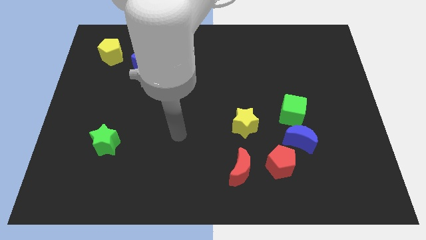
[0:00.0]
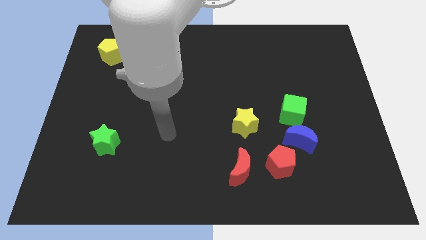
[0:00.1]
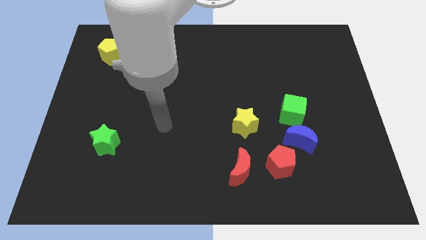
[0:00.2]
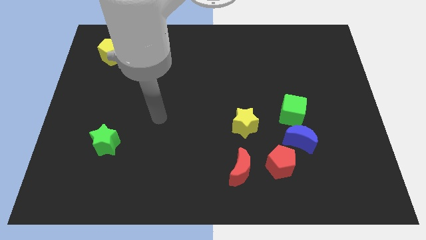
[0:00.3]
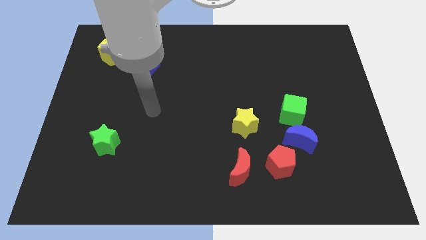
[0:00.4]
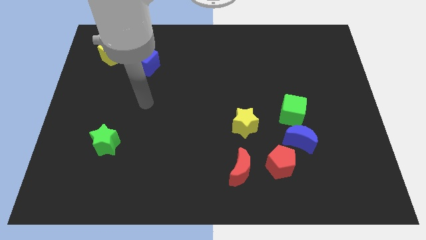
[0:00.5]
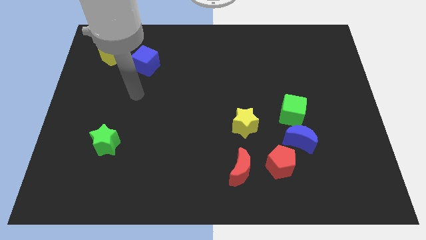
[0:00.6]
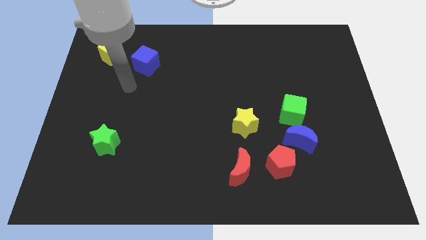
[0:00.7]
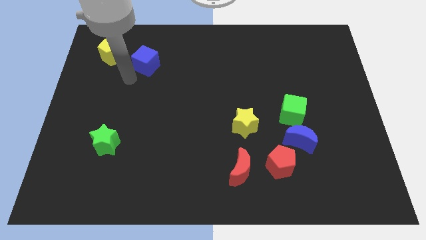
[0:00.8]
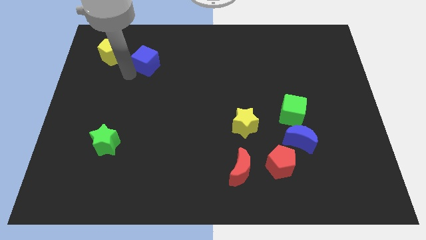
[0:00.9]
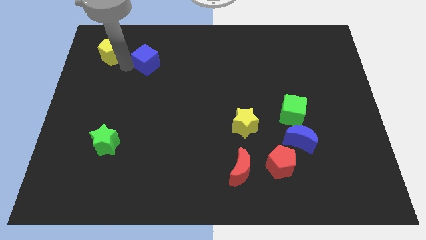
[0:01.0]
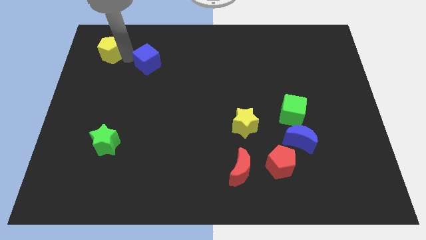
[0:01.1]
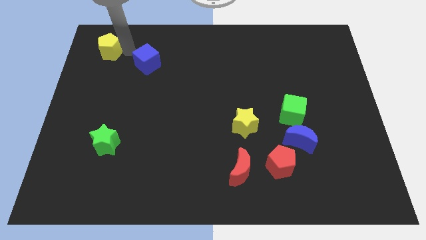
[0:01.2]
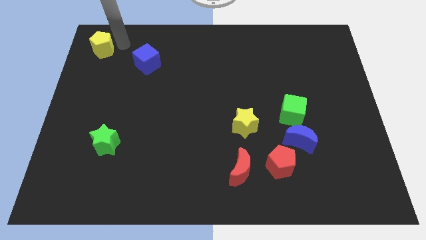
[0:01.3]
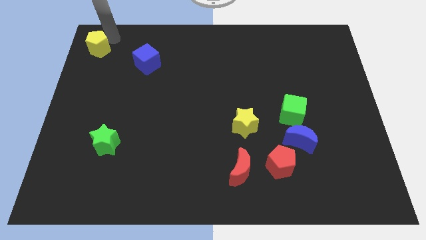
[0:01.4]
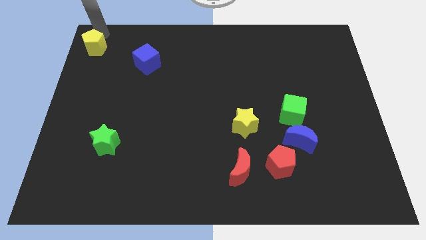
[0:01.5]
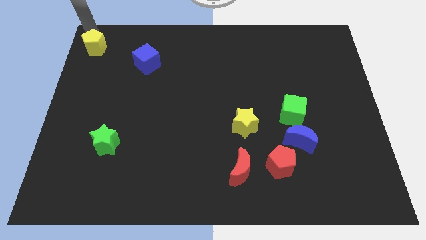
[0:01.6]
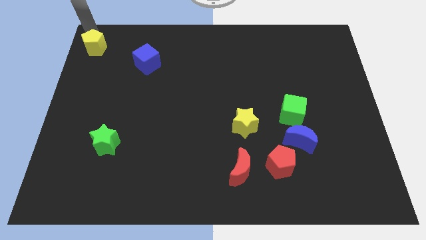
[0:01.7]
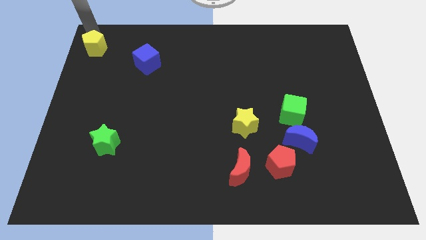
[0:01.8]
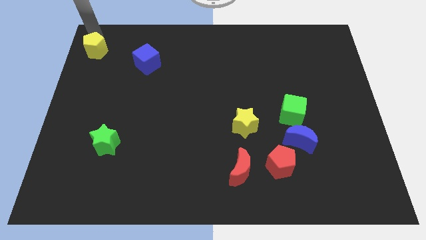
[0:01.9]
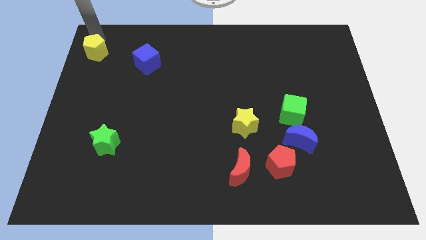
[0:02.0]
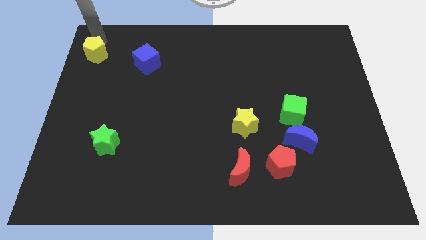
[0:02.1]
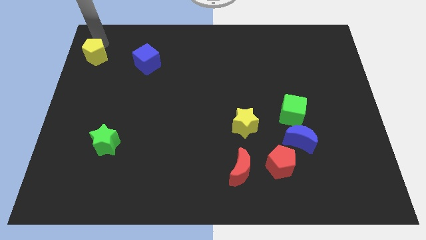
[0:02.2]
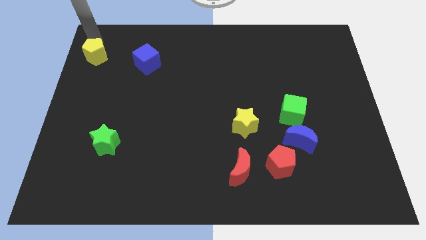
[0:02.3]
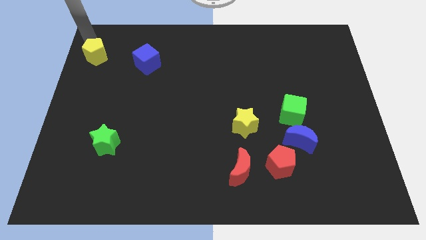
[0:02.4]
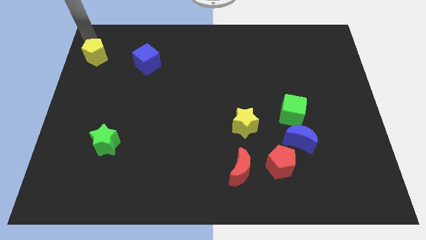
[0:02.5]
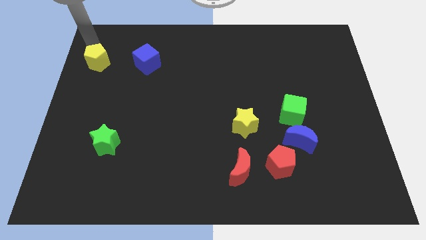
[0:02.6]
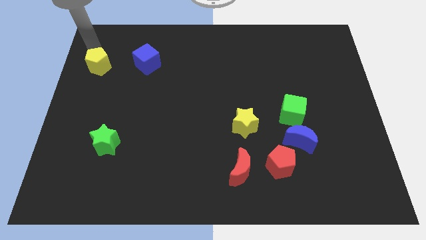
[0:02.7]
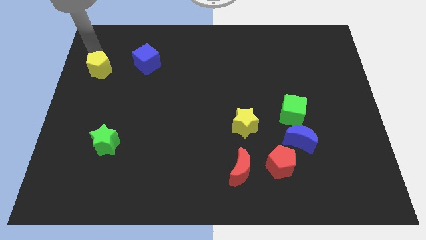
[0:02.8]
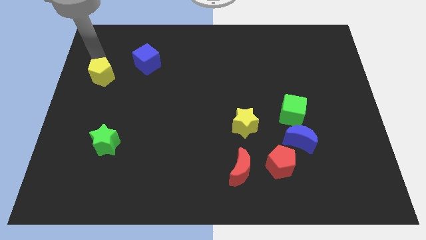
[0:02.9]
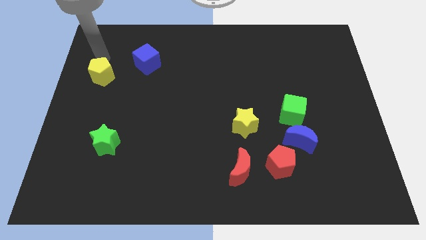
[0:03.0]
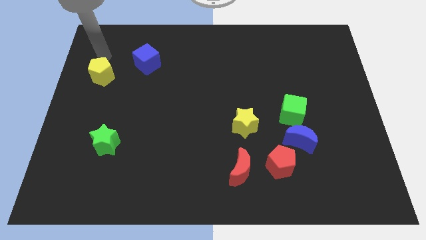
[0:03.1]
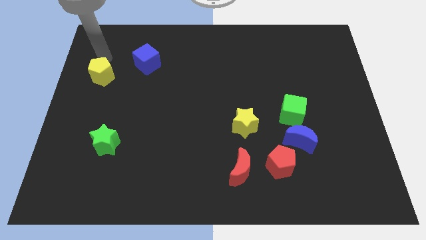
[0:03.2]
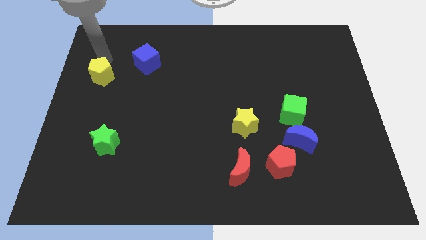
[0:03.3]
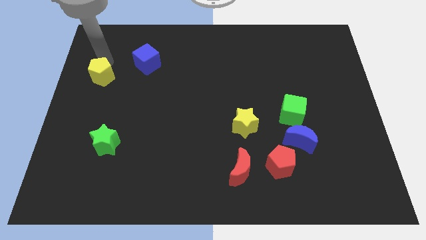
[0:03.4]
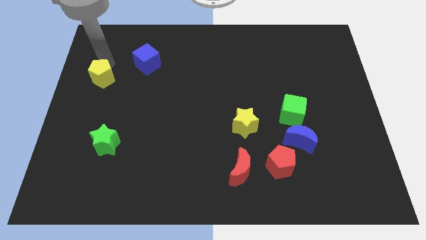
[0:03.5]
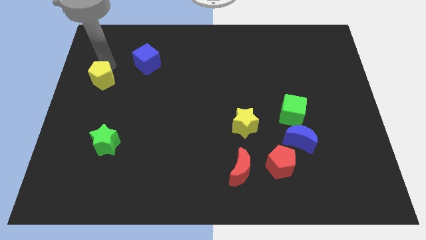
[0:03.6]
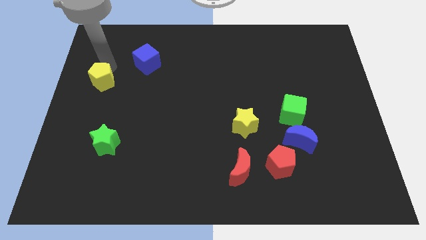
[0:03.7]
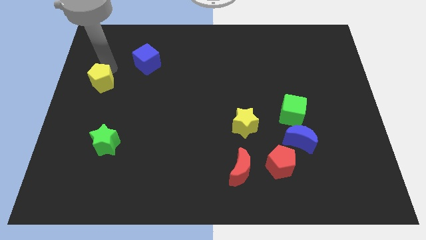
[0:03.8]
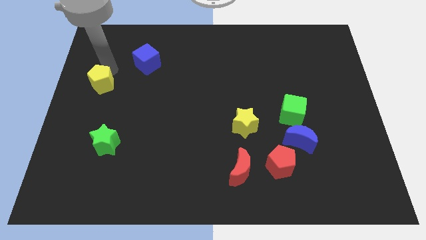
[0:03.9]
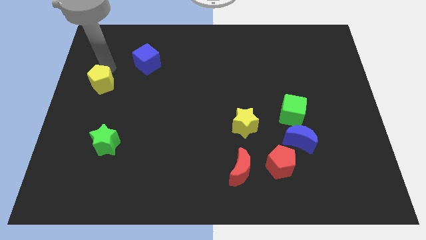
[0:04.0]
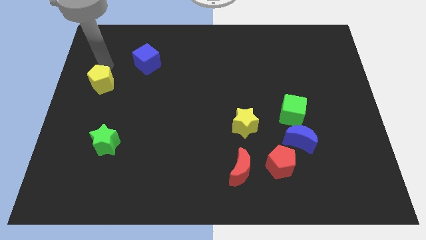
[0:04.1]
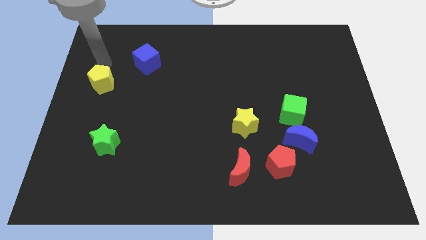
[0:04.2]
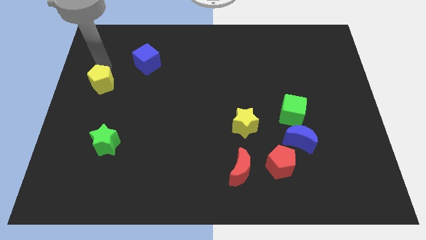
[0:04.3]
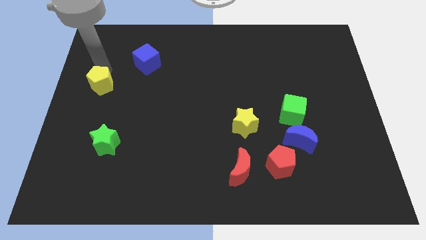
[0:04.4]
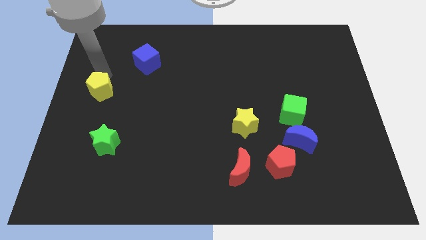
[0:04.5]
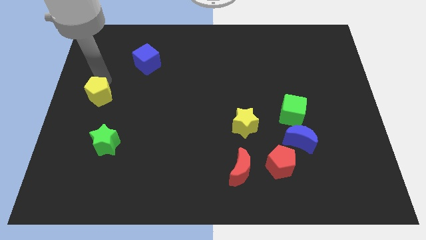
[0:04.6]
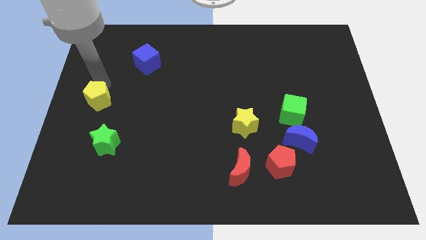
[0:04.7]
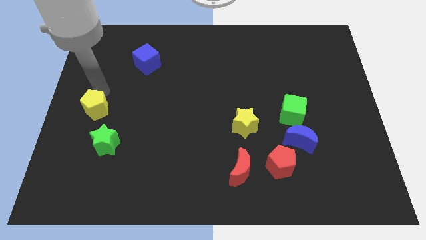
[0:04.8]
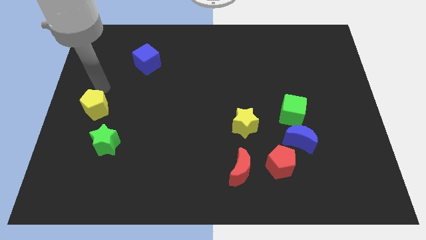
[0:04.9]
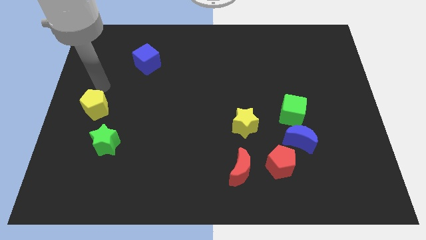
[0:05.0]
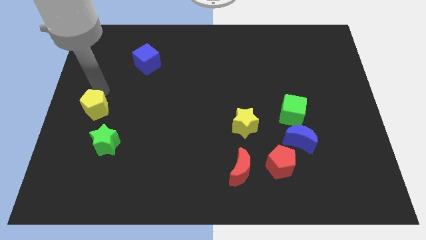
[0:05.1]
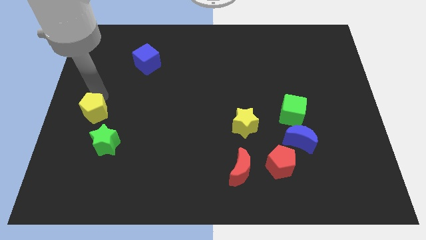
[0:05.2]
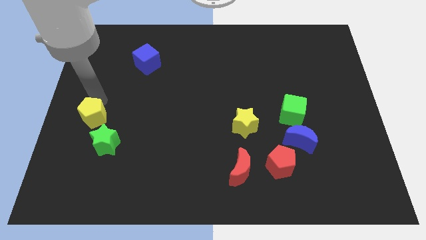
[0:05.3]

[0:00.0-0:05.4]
push the yellow pentagon down

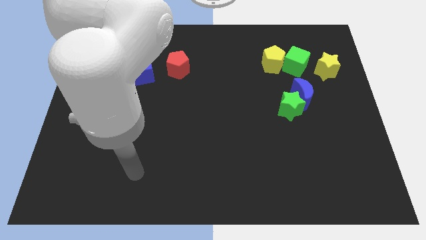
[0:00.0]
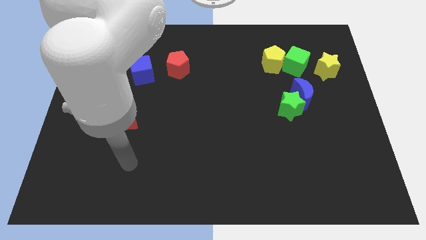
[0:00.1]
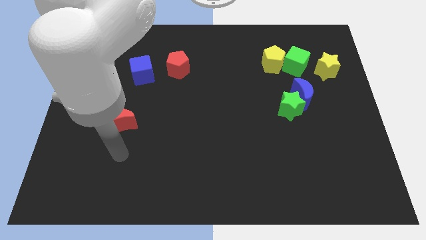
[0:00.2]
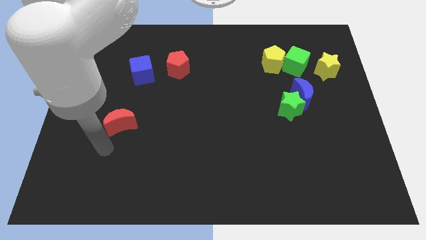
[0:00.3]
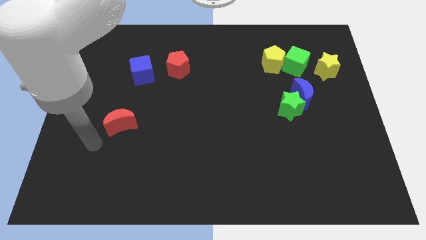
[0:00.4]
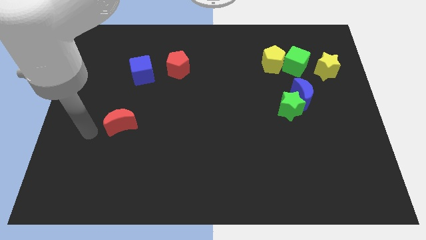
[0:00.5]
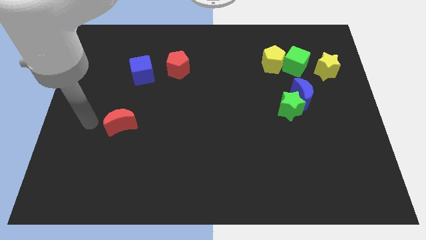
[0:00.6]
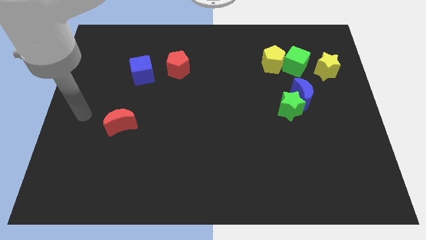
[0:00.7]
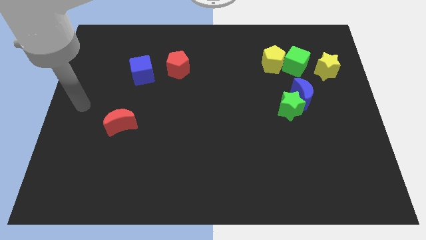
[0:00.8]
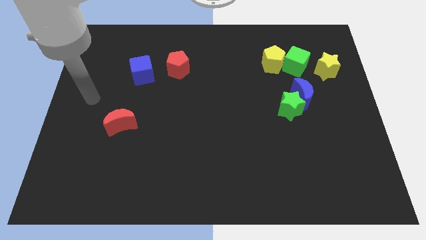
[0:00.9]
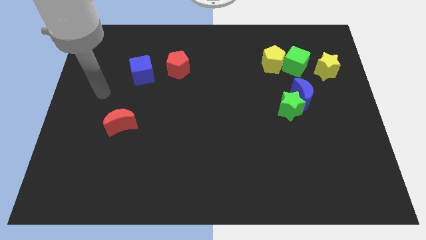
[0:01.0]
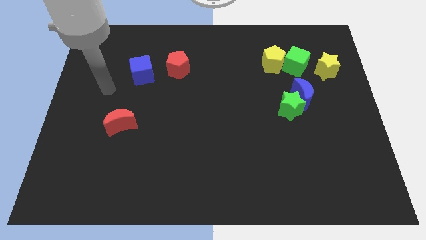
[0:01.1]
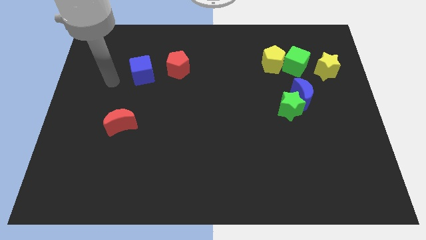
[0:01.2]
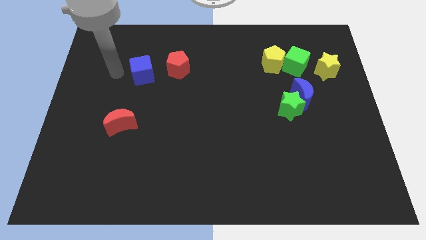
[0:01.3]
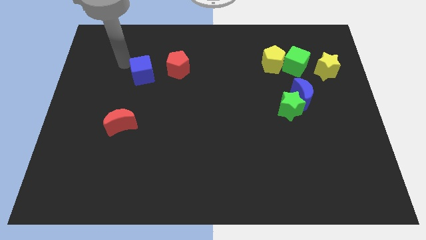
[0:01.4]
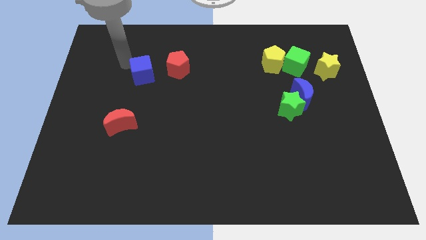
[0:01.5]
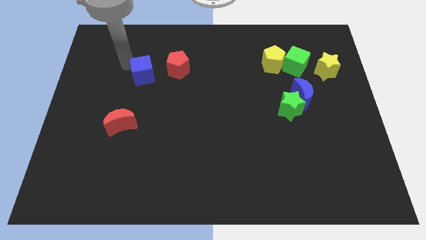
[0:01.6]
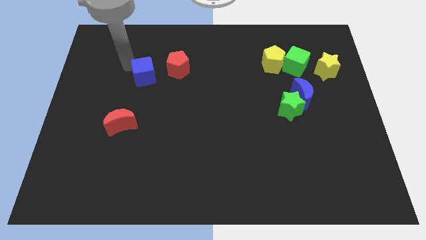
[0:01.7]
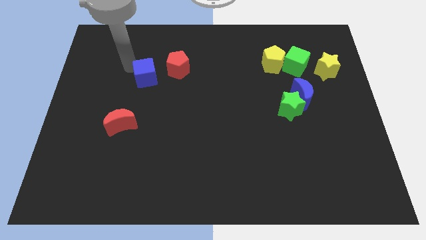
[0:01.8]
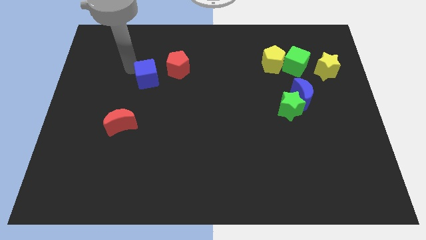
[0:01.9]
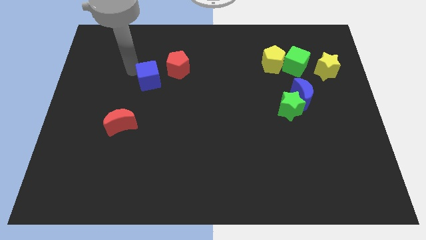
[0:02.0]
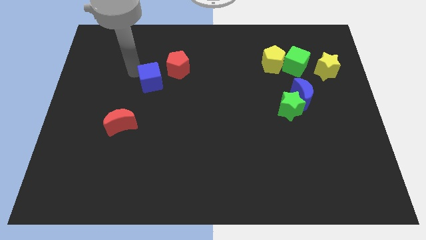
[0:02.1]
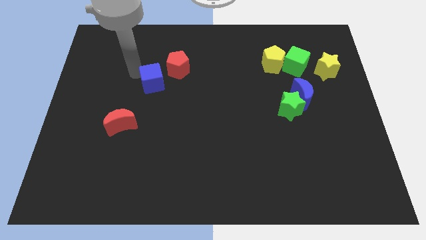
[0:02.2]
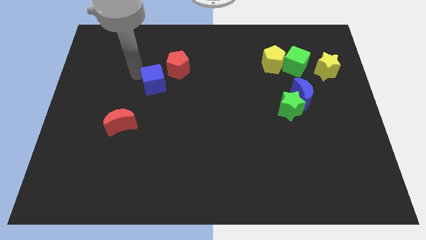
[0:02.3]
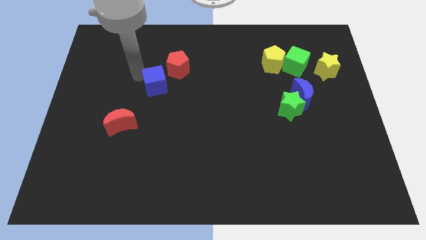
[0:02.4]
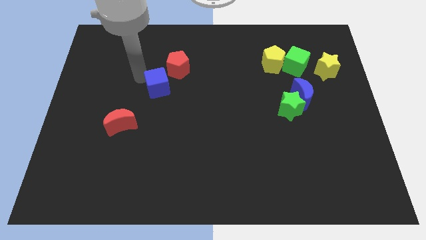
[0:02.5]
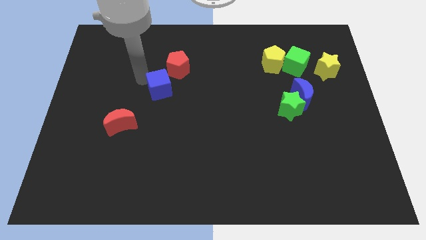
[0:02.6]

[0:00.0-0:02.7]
push the blue cube a bit down and then right
